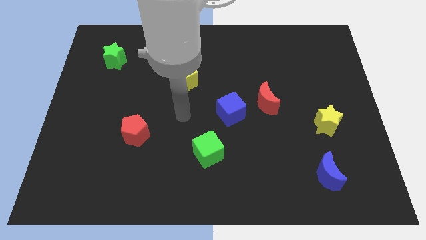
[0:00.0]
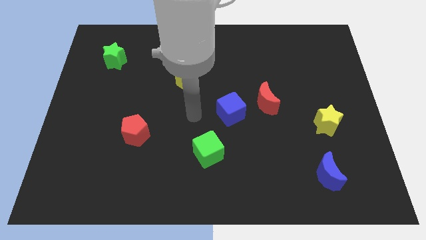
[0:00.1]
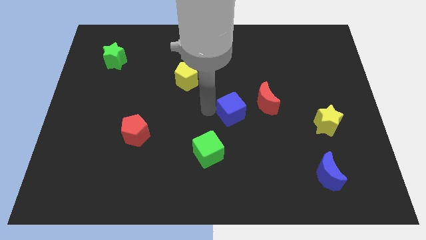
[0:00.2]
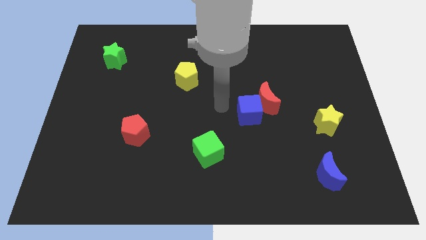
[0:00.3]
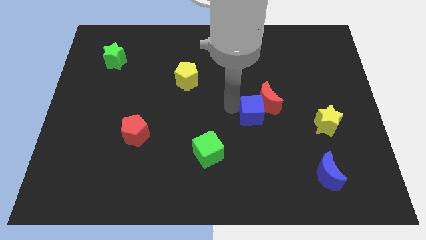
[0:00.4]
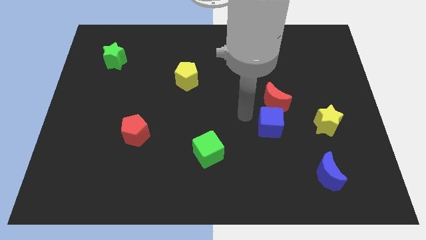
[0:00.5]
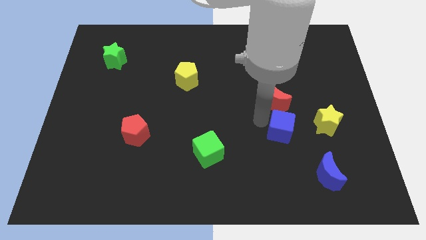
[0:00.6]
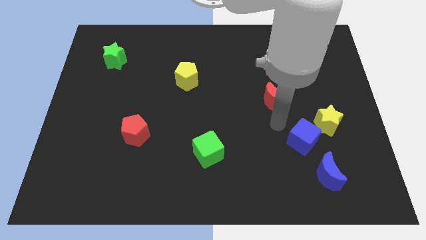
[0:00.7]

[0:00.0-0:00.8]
pull the red moon apart from the blue cube

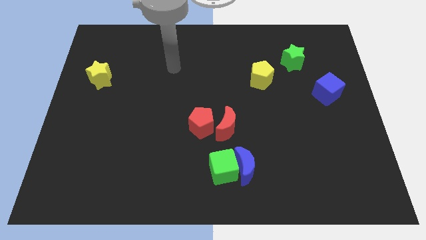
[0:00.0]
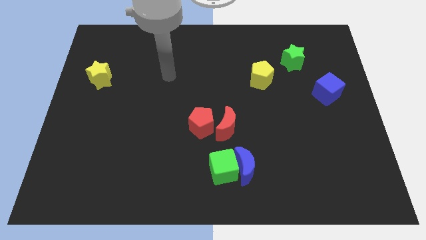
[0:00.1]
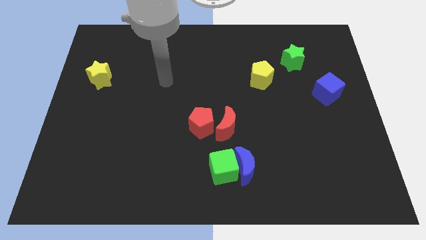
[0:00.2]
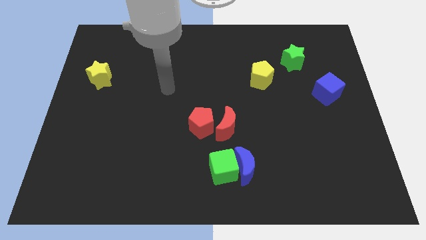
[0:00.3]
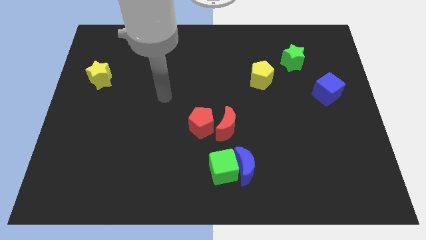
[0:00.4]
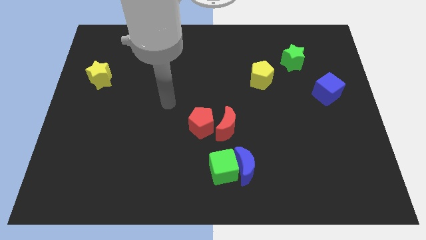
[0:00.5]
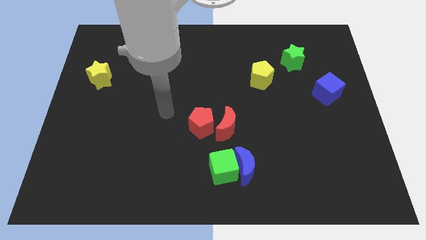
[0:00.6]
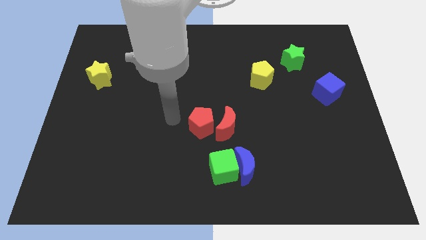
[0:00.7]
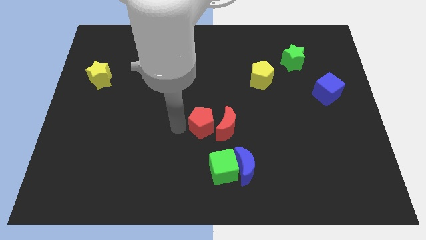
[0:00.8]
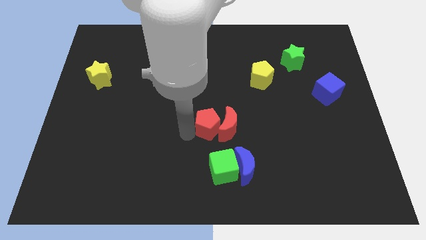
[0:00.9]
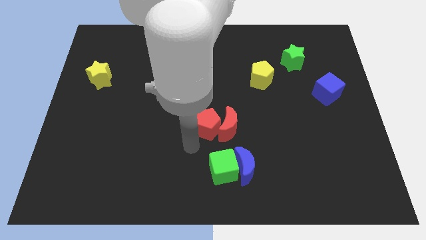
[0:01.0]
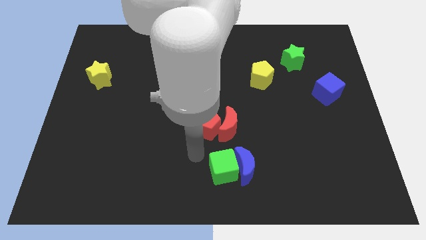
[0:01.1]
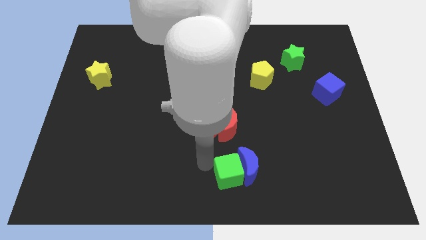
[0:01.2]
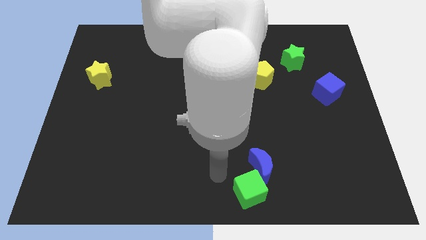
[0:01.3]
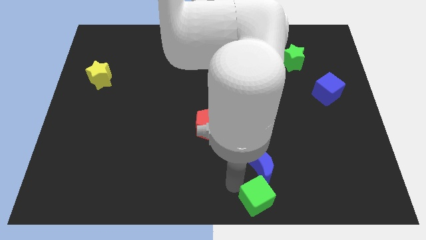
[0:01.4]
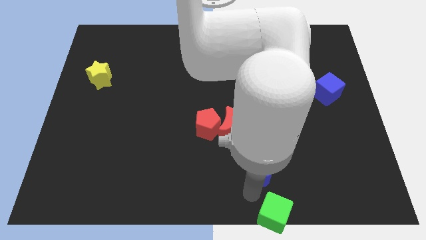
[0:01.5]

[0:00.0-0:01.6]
pull the blue moon apart from the green cube

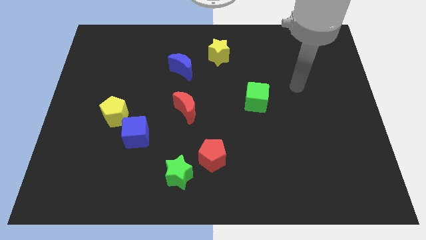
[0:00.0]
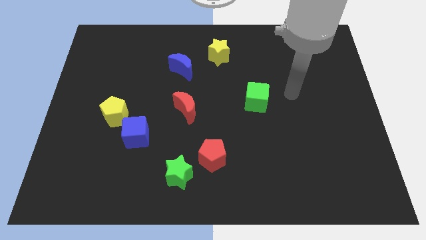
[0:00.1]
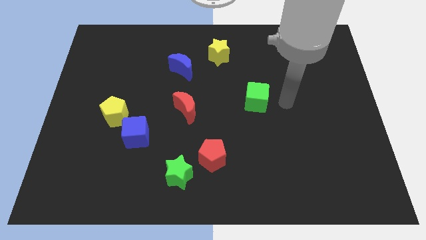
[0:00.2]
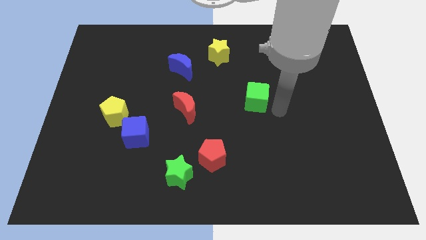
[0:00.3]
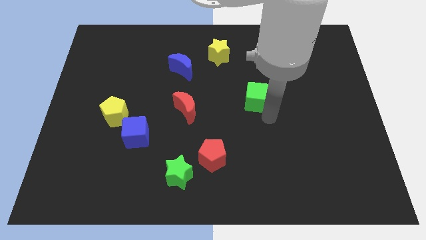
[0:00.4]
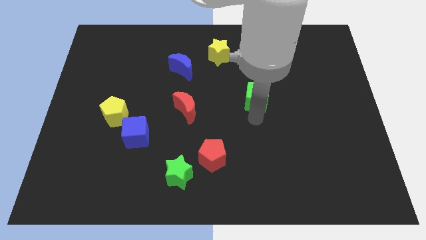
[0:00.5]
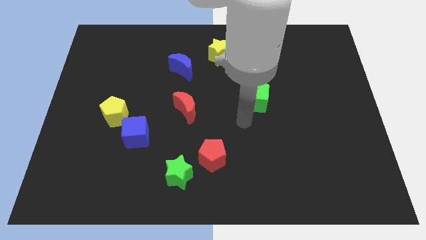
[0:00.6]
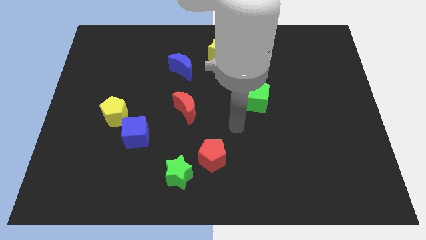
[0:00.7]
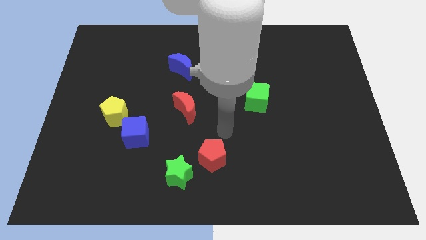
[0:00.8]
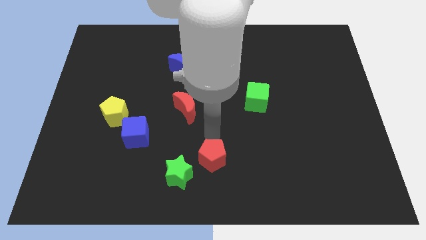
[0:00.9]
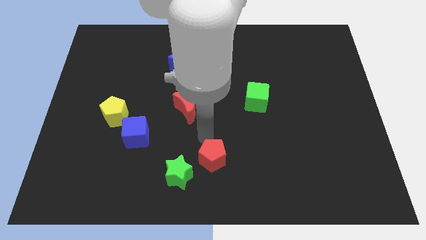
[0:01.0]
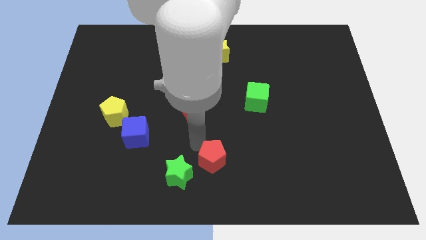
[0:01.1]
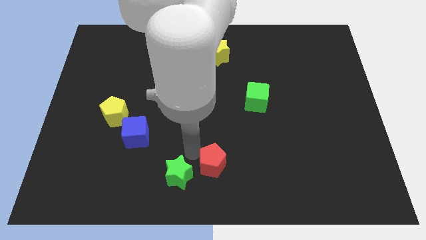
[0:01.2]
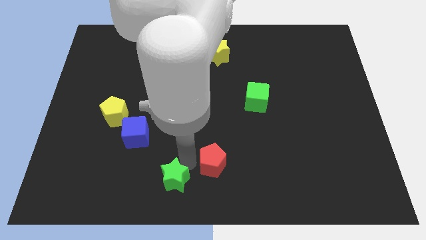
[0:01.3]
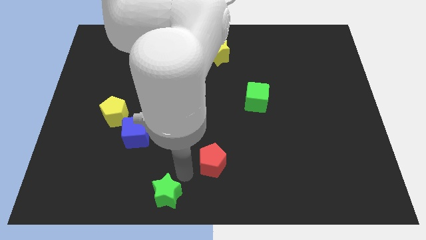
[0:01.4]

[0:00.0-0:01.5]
pull the red pentagon apart from the green star

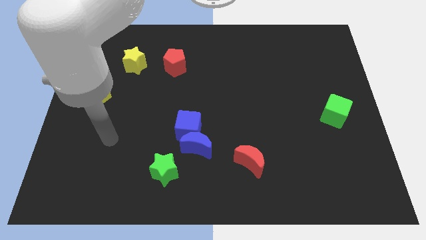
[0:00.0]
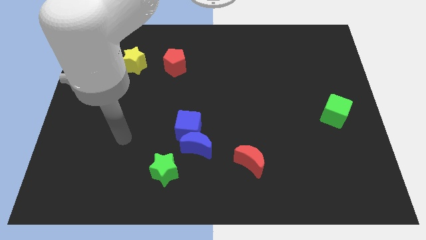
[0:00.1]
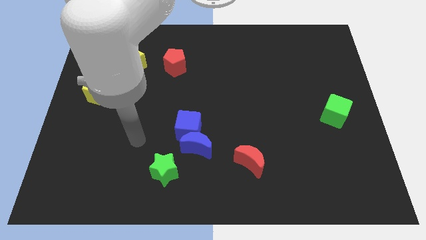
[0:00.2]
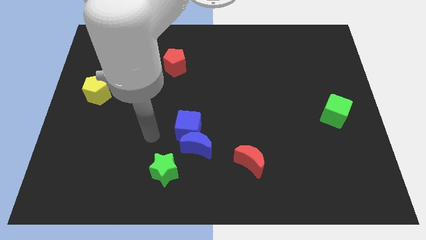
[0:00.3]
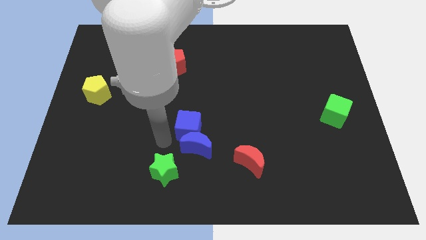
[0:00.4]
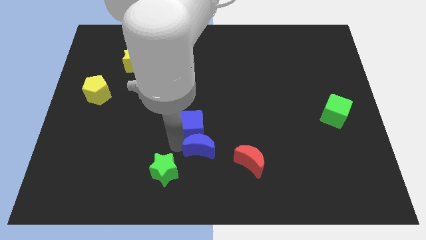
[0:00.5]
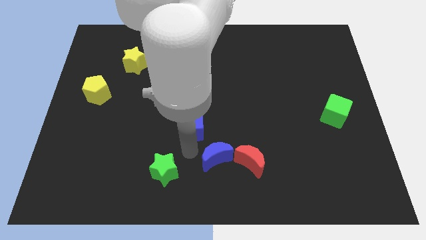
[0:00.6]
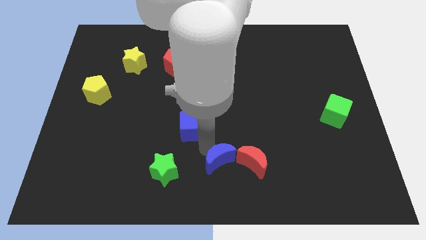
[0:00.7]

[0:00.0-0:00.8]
separate the blue cube from the blue moon

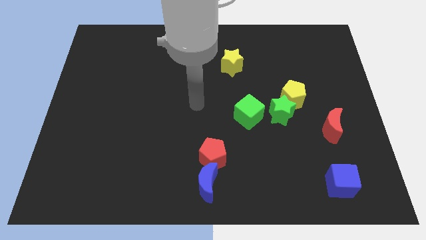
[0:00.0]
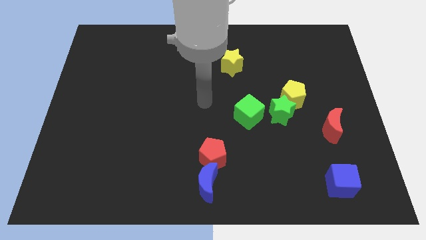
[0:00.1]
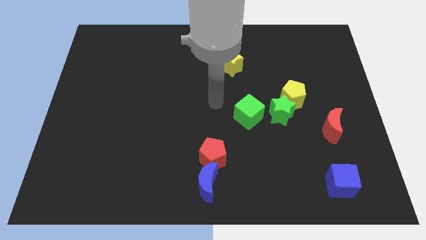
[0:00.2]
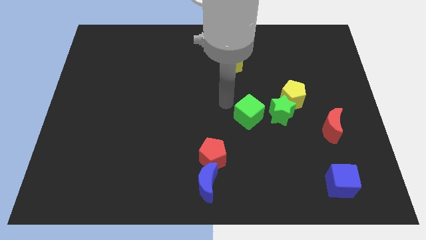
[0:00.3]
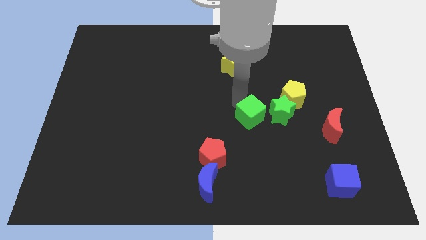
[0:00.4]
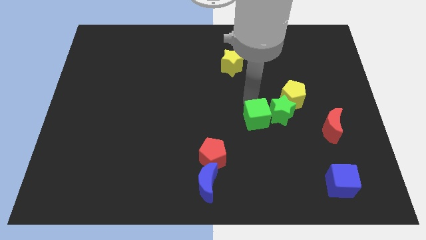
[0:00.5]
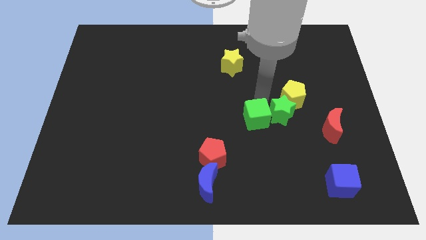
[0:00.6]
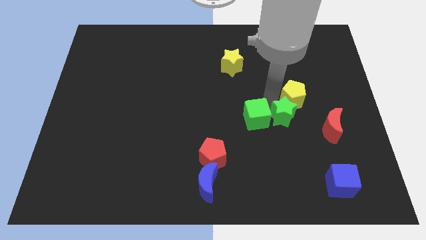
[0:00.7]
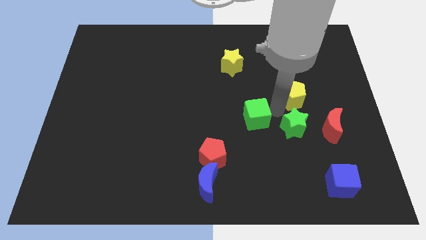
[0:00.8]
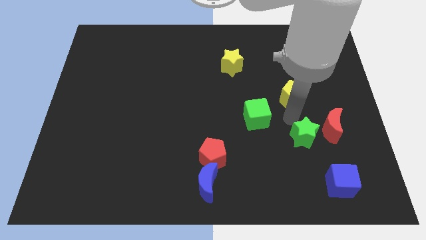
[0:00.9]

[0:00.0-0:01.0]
pull the yellow pentagon apart from the green star

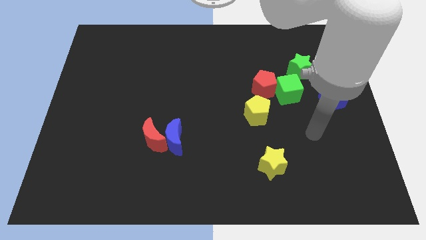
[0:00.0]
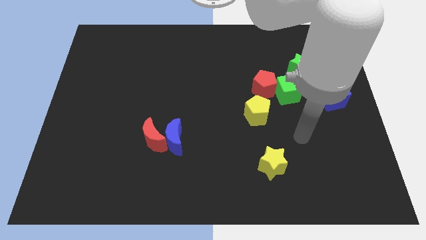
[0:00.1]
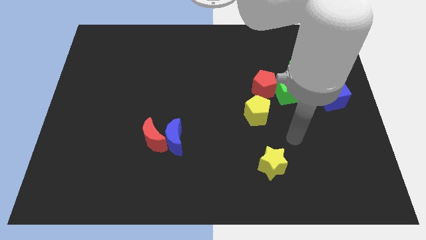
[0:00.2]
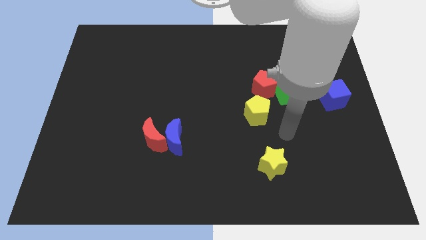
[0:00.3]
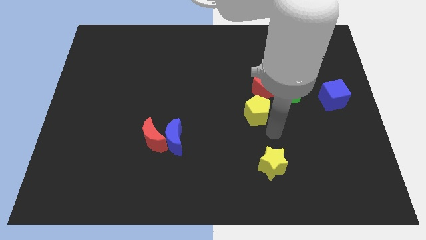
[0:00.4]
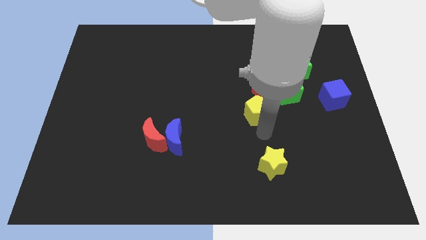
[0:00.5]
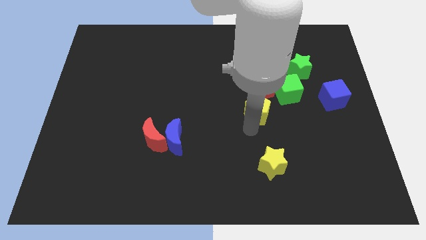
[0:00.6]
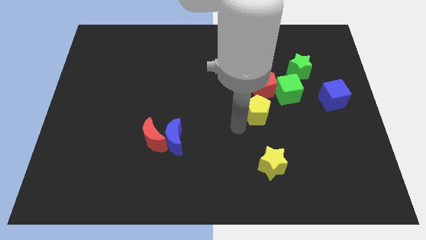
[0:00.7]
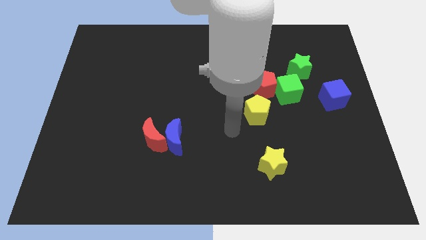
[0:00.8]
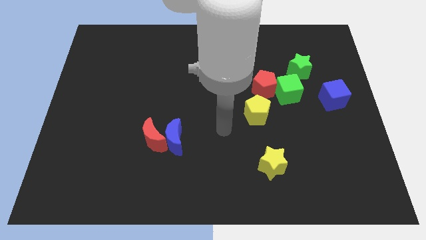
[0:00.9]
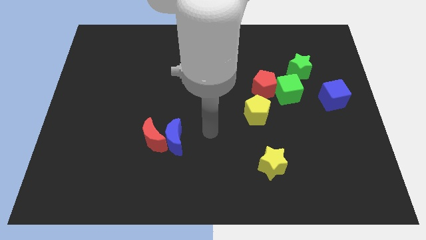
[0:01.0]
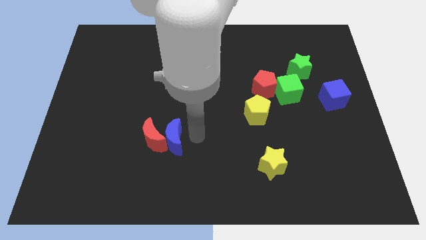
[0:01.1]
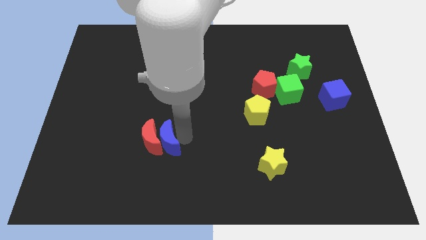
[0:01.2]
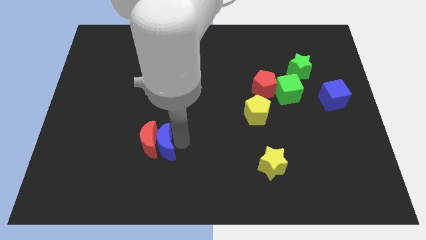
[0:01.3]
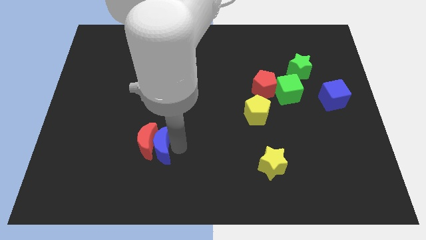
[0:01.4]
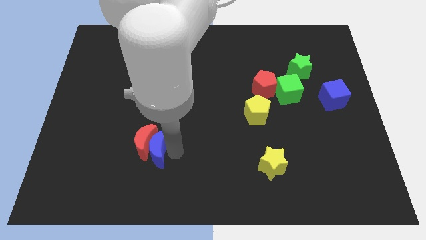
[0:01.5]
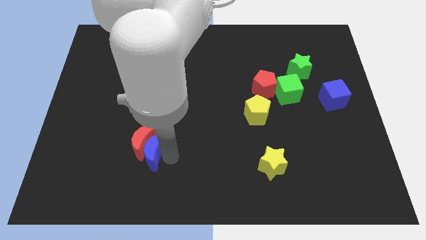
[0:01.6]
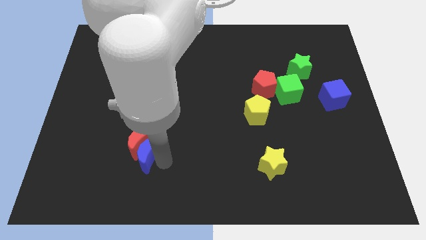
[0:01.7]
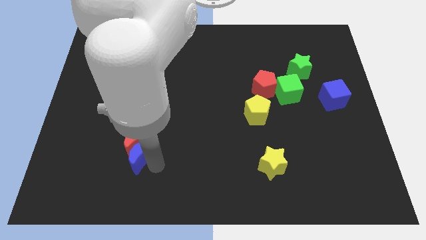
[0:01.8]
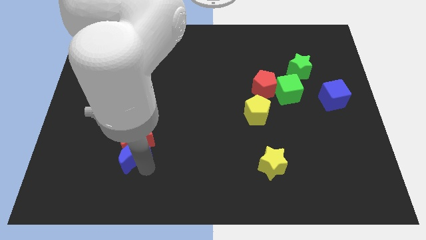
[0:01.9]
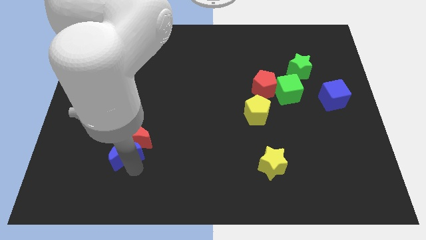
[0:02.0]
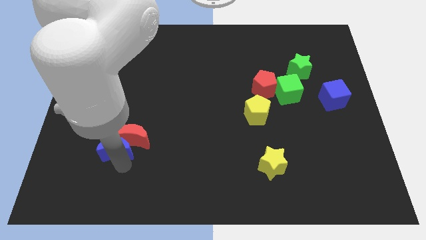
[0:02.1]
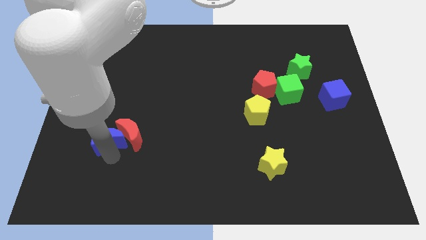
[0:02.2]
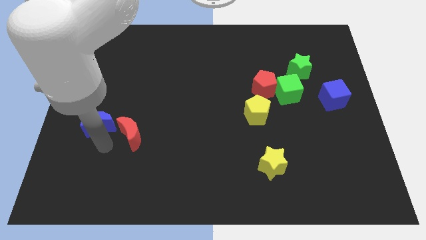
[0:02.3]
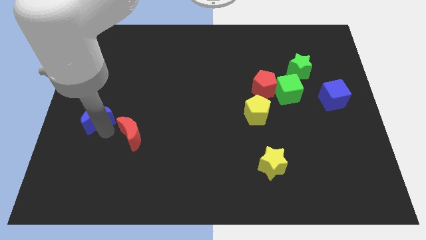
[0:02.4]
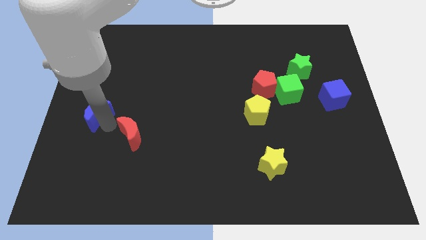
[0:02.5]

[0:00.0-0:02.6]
move the red moon away from the blue moon

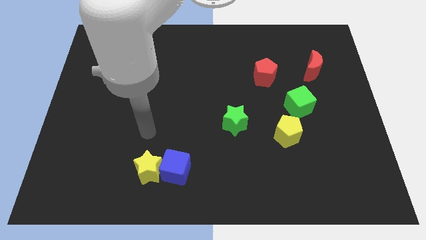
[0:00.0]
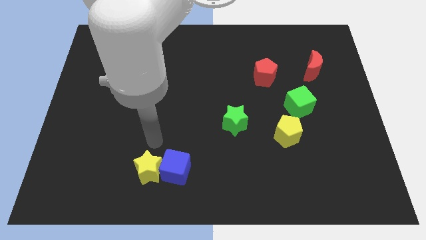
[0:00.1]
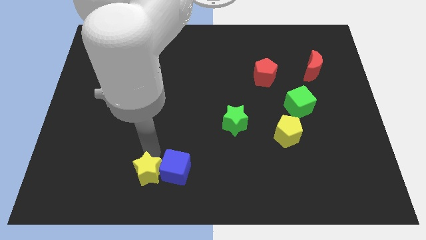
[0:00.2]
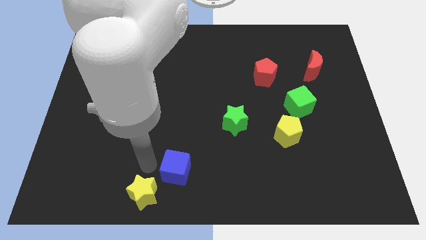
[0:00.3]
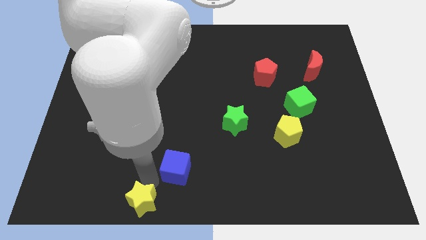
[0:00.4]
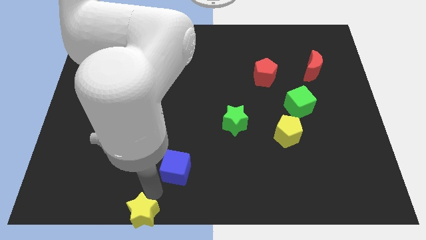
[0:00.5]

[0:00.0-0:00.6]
move the blue cube away from the yellow star

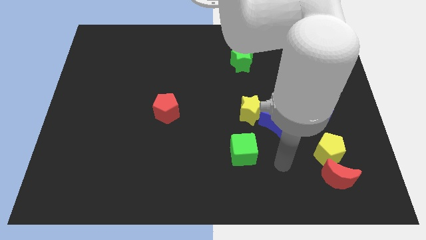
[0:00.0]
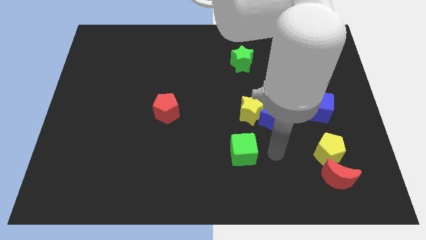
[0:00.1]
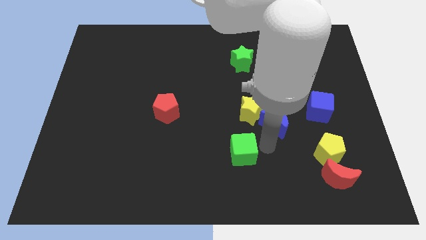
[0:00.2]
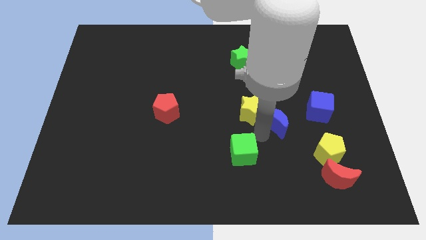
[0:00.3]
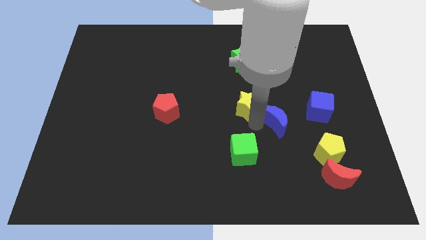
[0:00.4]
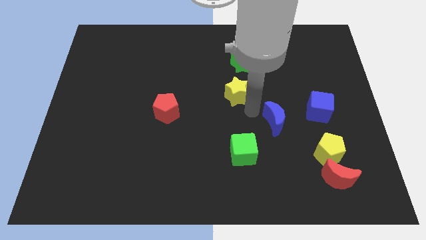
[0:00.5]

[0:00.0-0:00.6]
pull the blue moon apart from the yellow star

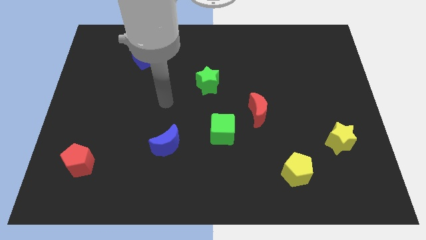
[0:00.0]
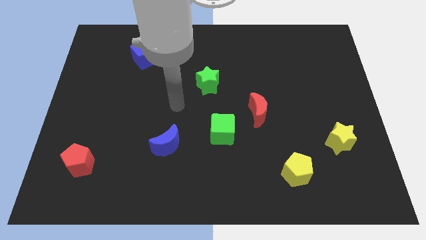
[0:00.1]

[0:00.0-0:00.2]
pull the red moon apart from the green cube
